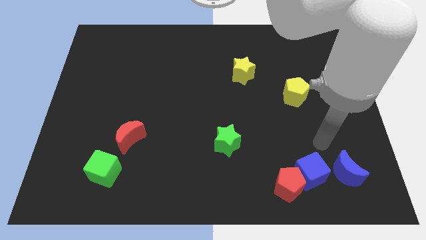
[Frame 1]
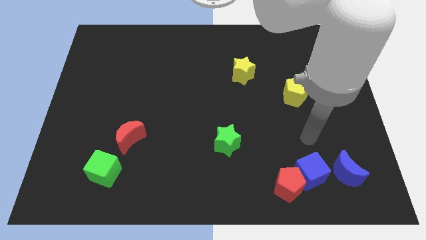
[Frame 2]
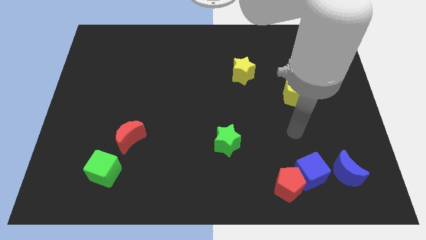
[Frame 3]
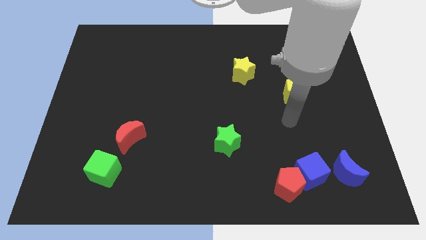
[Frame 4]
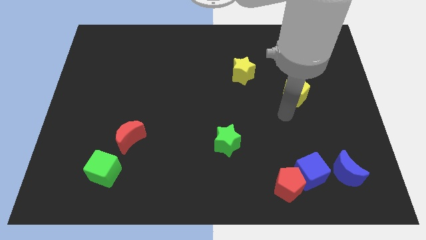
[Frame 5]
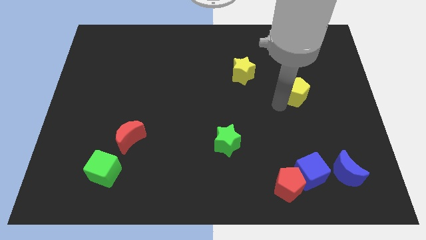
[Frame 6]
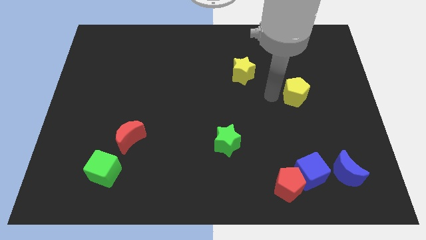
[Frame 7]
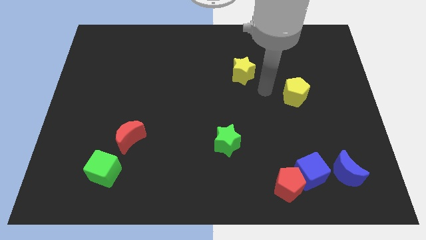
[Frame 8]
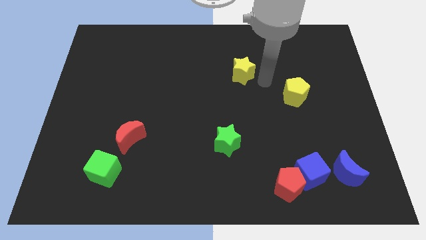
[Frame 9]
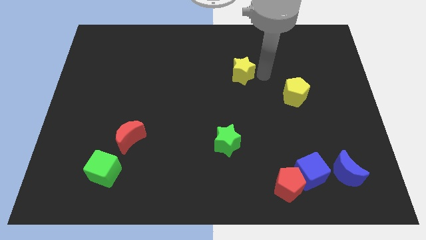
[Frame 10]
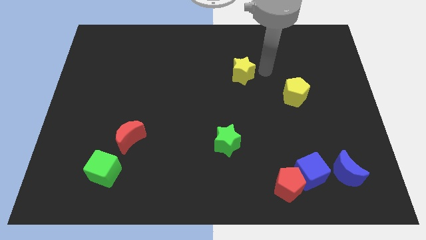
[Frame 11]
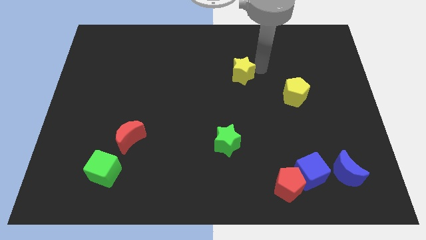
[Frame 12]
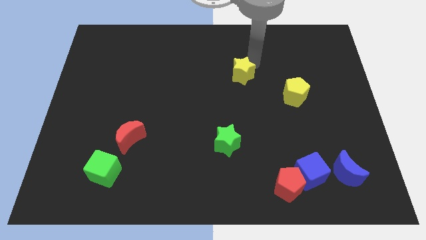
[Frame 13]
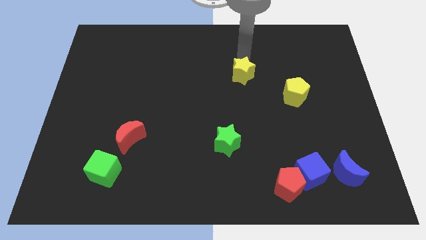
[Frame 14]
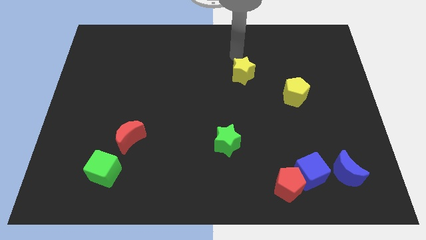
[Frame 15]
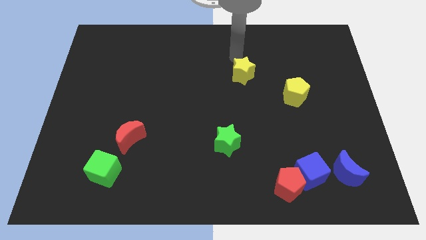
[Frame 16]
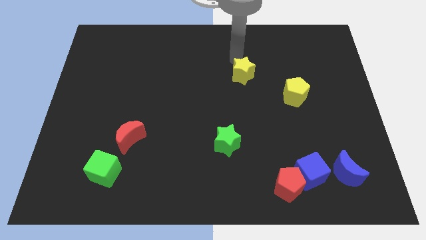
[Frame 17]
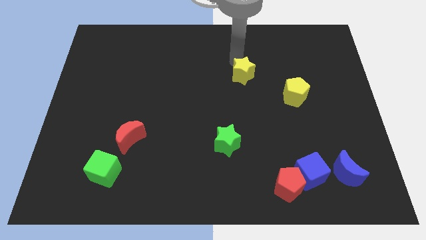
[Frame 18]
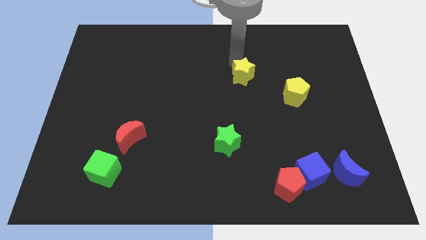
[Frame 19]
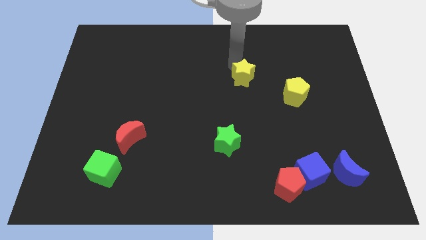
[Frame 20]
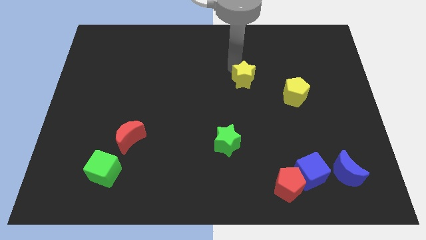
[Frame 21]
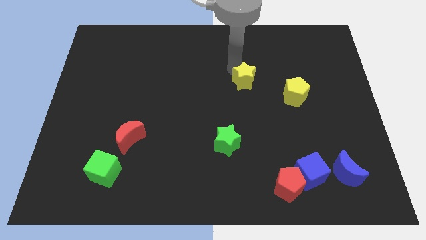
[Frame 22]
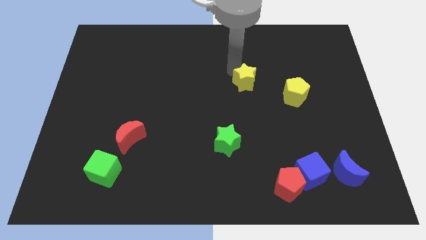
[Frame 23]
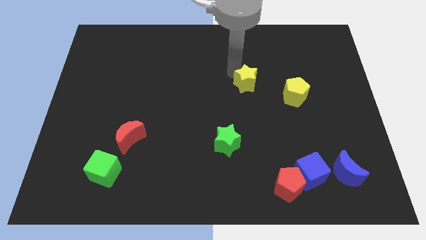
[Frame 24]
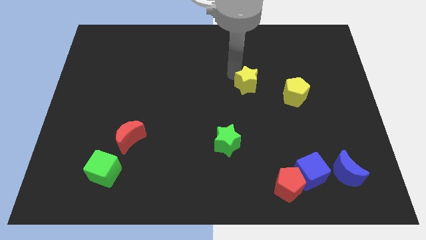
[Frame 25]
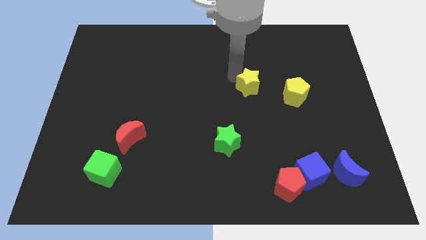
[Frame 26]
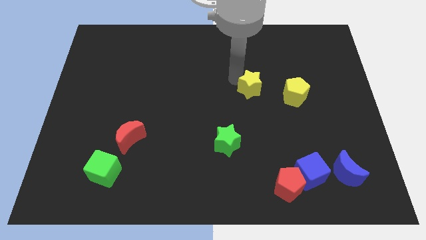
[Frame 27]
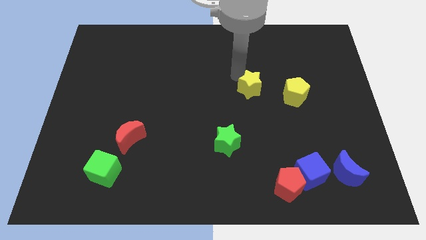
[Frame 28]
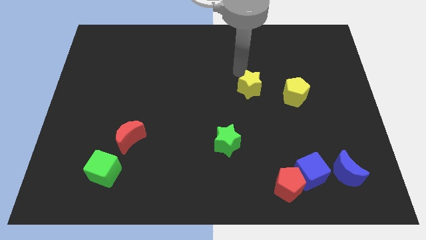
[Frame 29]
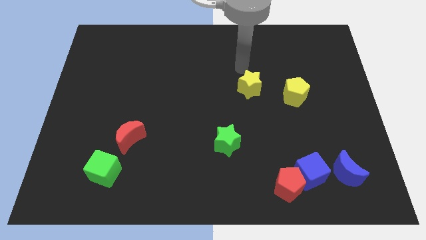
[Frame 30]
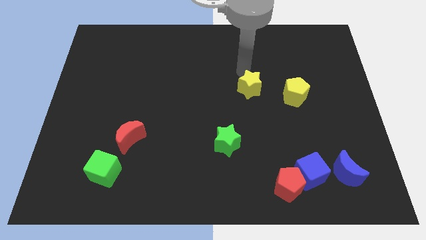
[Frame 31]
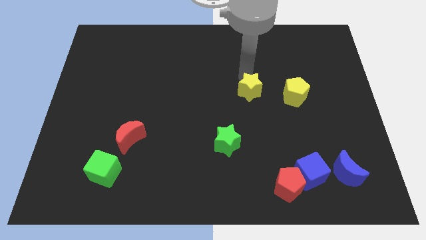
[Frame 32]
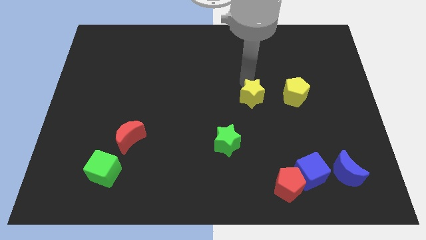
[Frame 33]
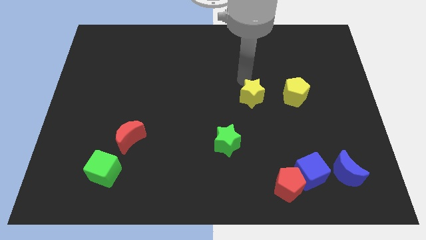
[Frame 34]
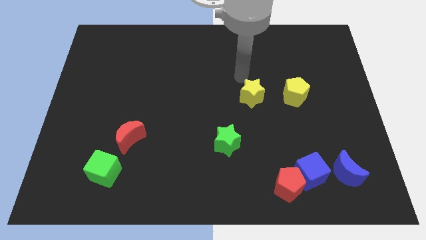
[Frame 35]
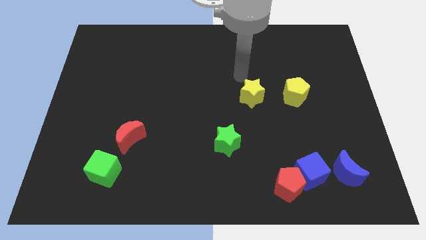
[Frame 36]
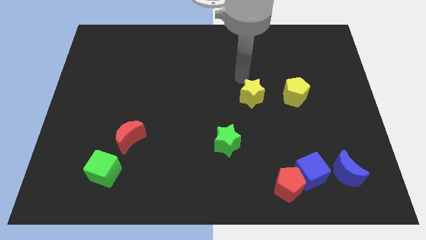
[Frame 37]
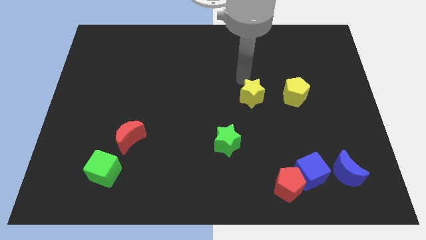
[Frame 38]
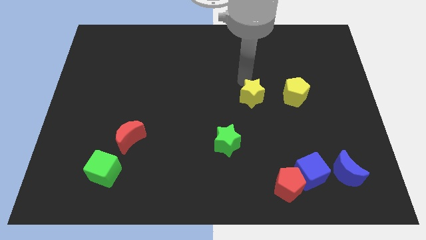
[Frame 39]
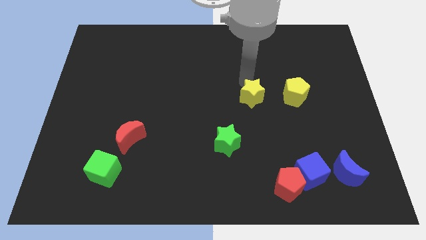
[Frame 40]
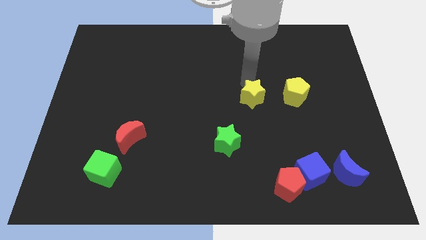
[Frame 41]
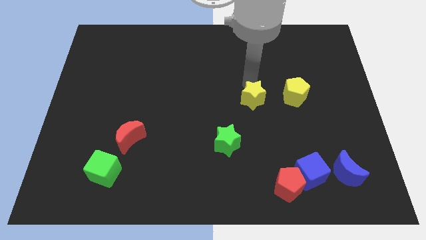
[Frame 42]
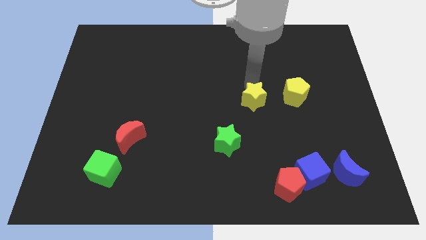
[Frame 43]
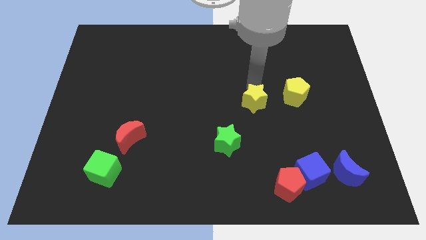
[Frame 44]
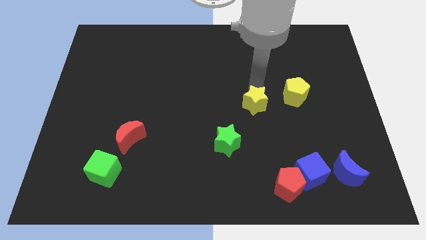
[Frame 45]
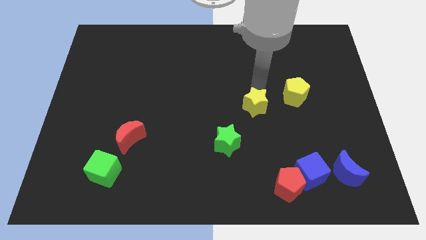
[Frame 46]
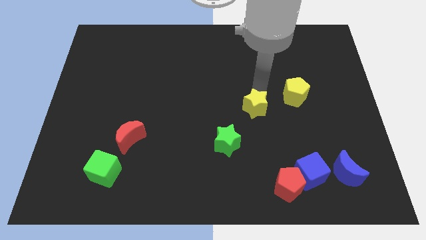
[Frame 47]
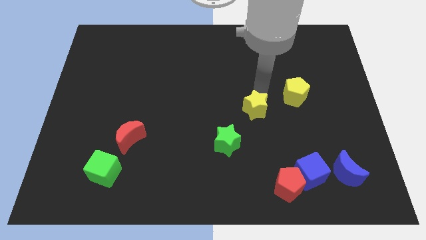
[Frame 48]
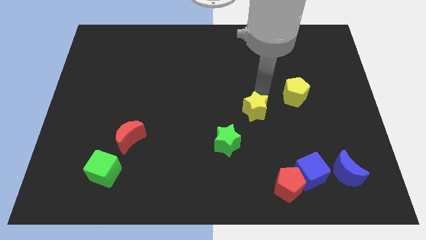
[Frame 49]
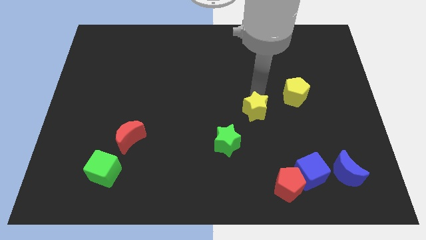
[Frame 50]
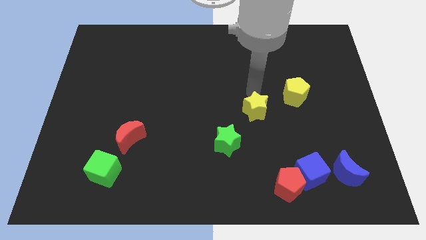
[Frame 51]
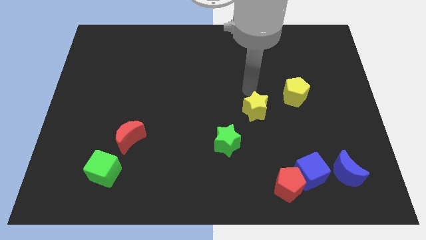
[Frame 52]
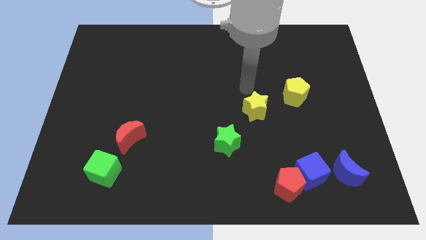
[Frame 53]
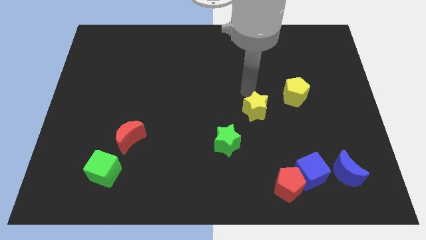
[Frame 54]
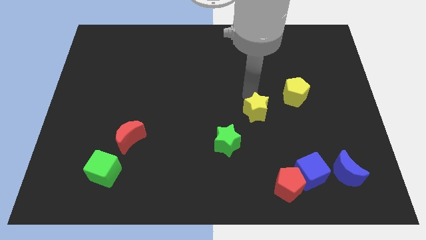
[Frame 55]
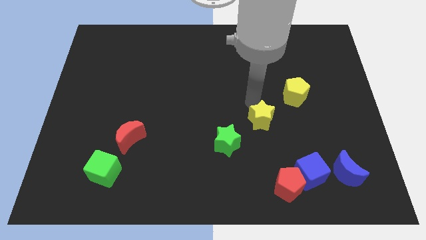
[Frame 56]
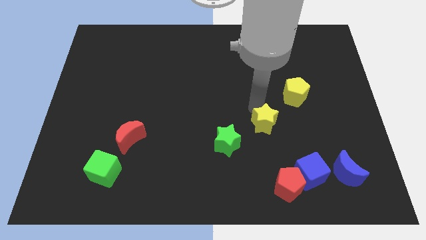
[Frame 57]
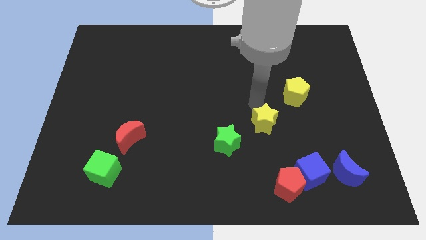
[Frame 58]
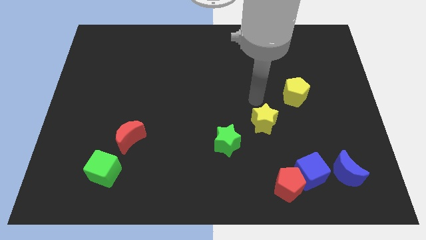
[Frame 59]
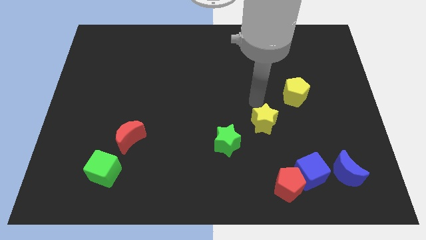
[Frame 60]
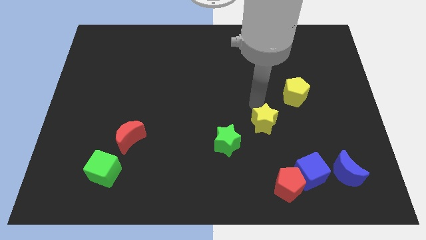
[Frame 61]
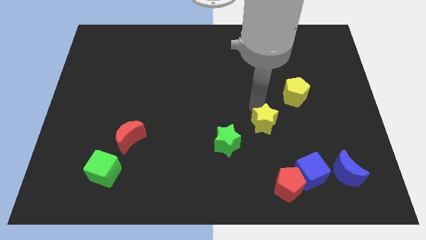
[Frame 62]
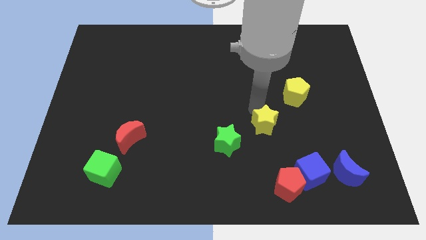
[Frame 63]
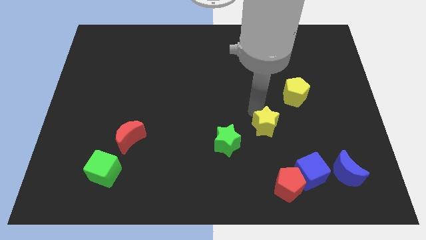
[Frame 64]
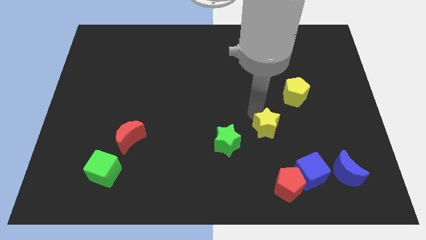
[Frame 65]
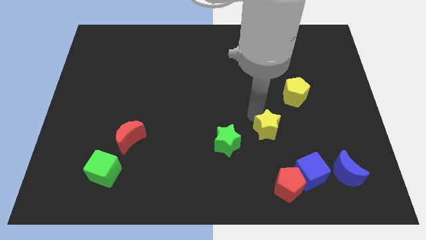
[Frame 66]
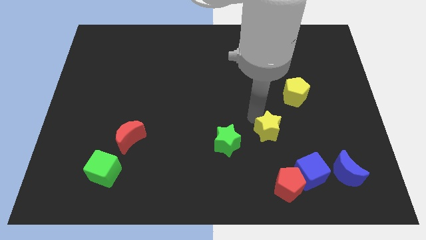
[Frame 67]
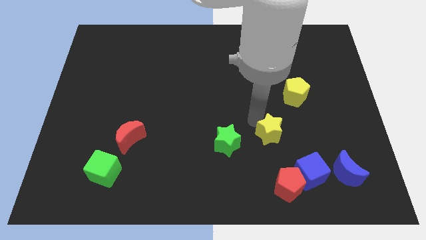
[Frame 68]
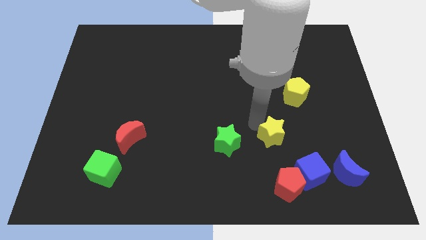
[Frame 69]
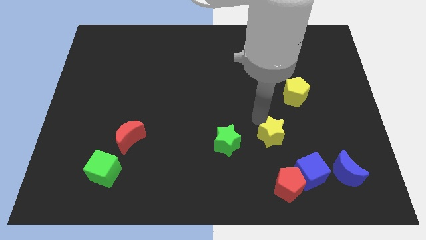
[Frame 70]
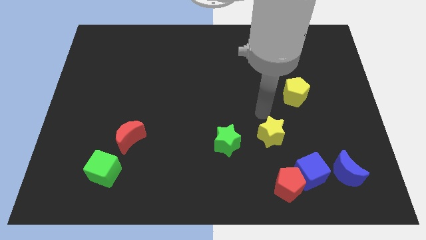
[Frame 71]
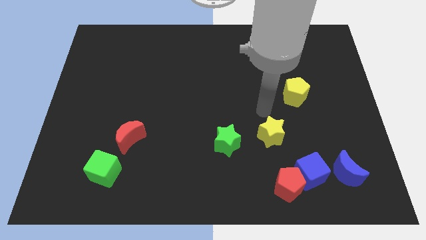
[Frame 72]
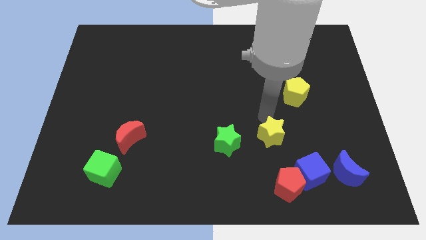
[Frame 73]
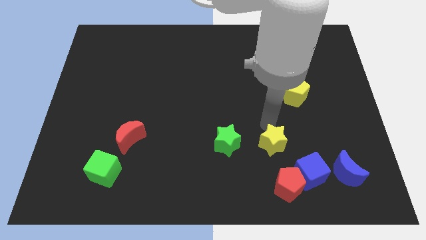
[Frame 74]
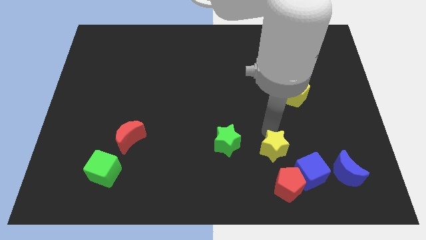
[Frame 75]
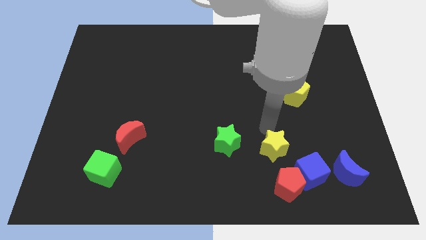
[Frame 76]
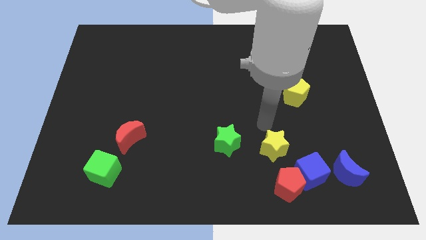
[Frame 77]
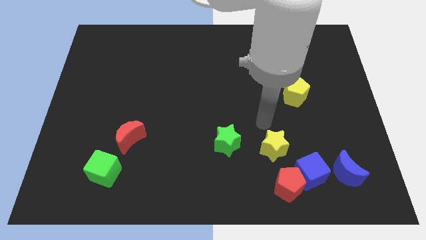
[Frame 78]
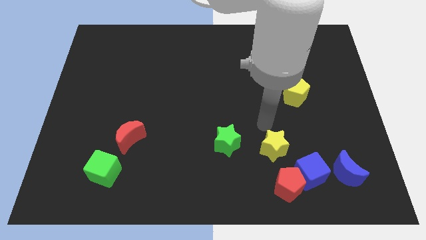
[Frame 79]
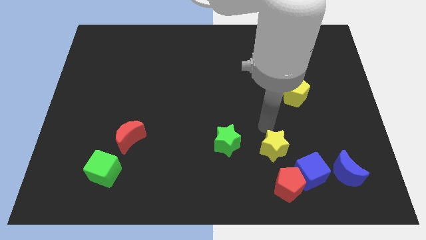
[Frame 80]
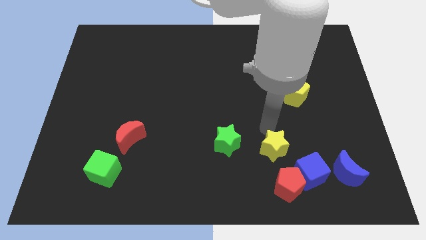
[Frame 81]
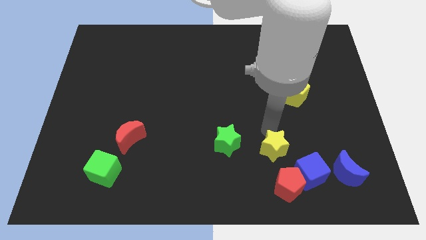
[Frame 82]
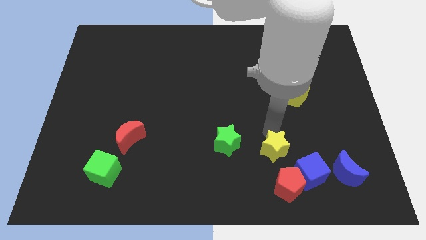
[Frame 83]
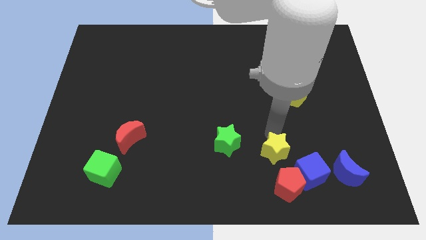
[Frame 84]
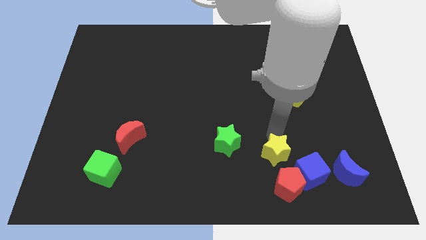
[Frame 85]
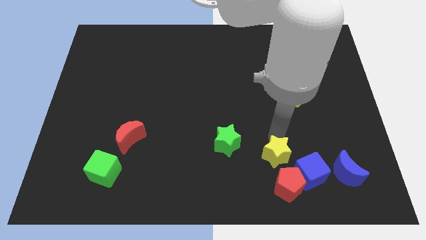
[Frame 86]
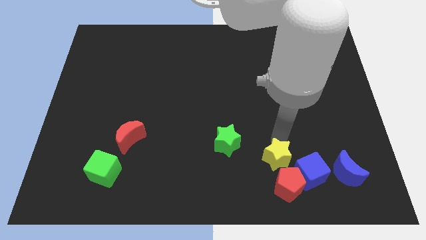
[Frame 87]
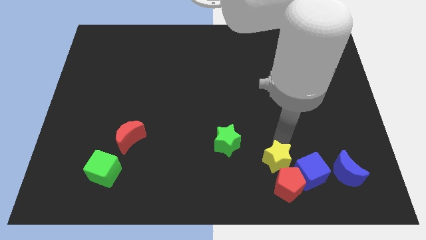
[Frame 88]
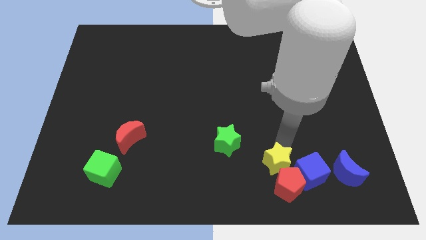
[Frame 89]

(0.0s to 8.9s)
push the yellow star close to the red pentagon
